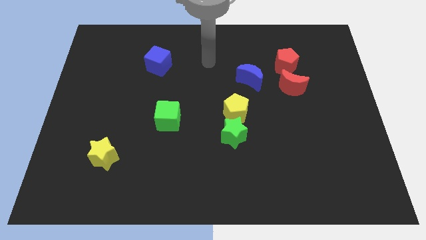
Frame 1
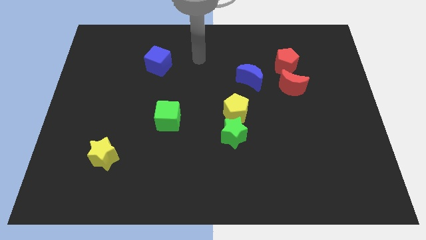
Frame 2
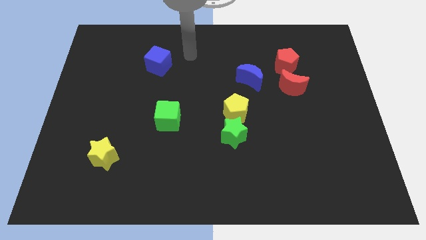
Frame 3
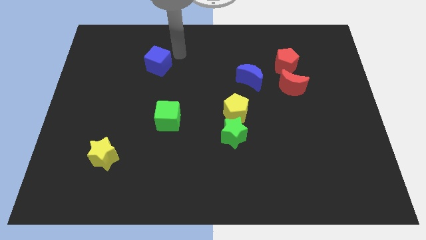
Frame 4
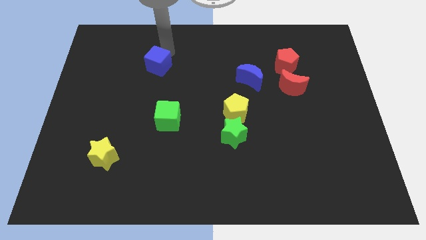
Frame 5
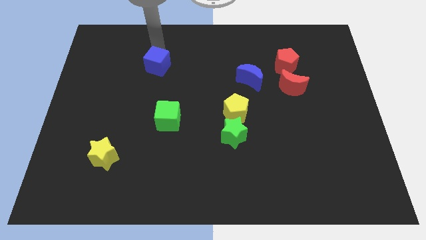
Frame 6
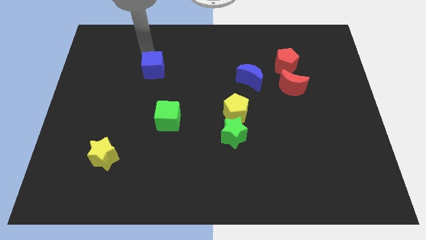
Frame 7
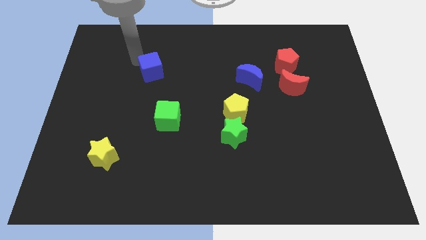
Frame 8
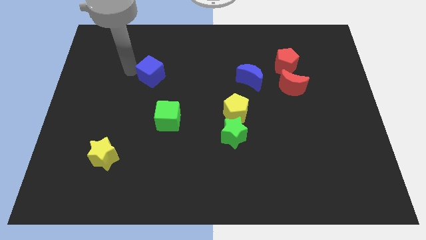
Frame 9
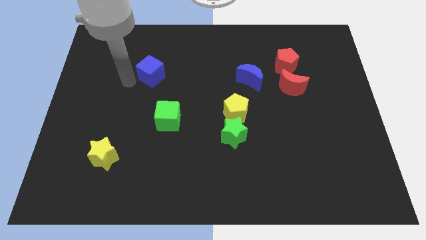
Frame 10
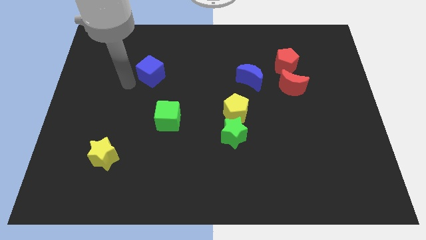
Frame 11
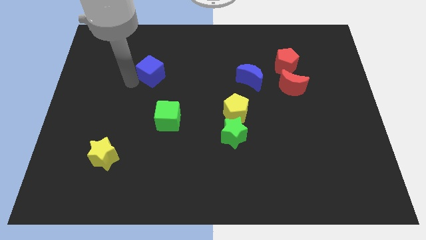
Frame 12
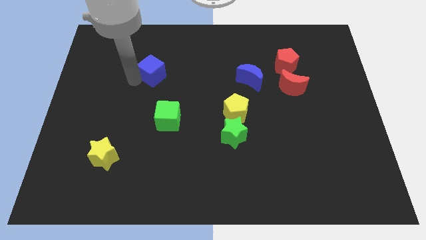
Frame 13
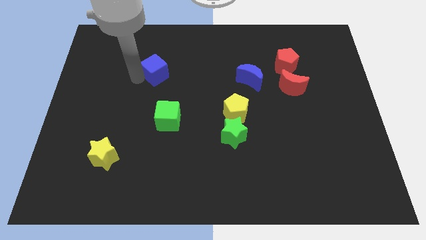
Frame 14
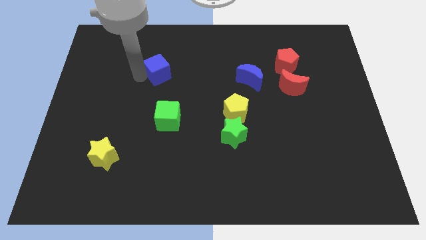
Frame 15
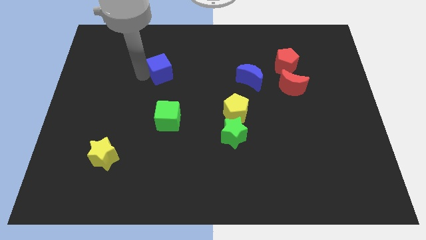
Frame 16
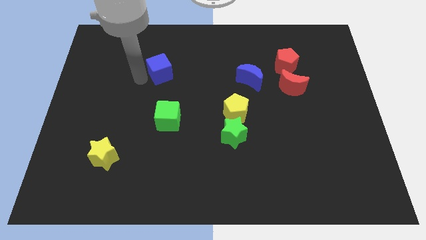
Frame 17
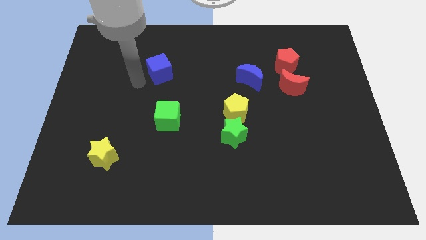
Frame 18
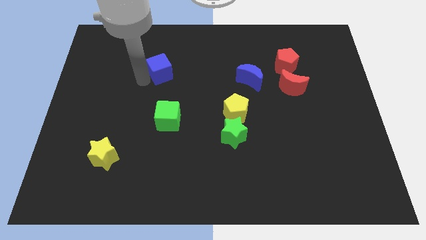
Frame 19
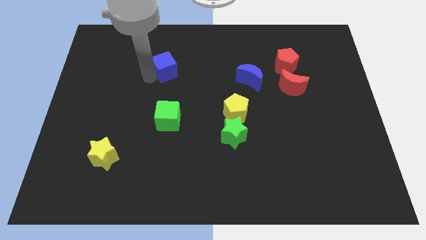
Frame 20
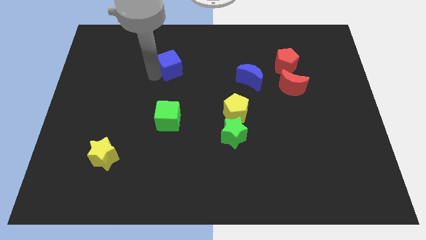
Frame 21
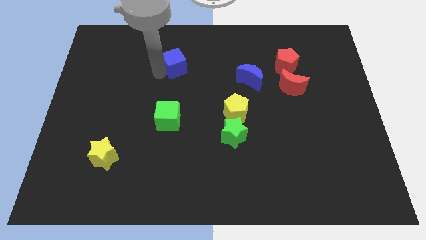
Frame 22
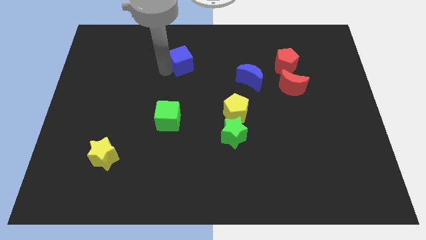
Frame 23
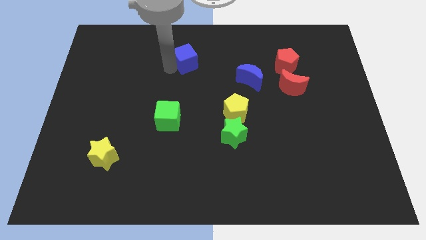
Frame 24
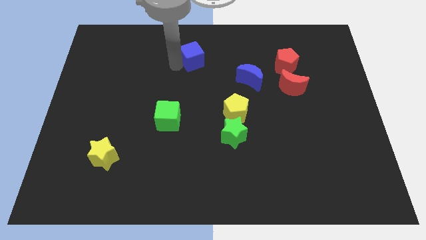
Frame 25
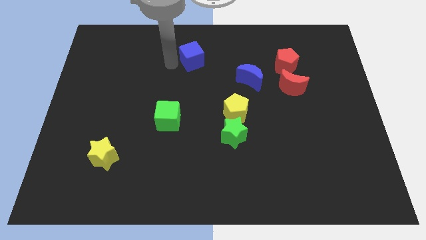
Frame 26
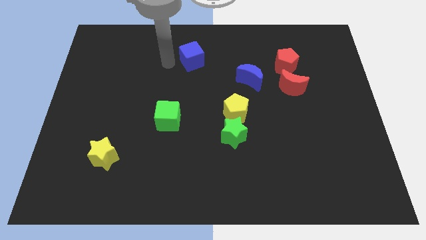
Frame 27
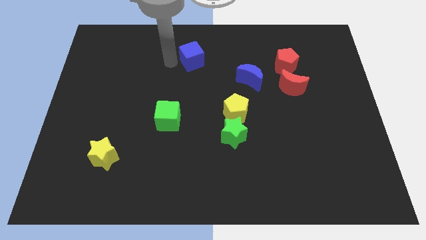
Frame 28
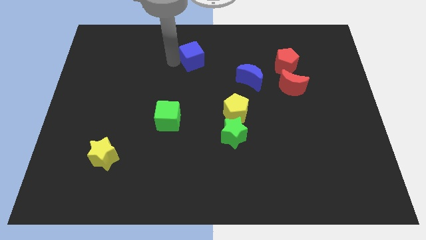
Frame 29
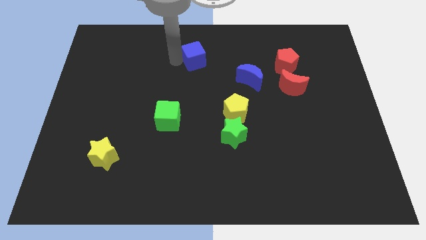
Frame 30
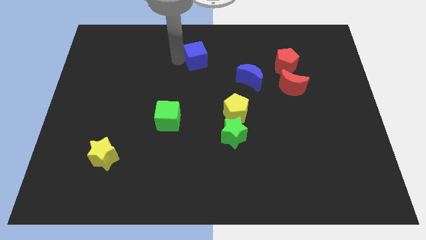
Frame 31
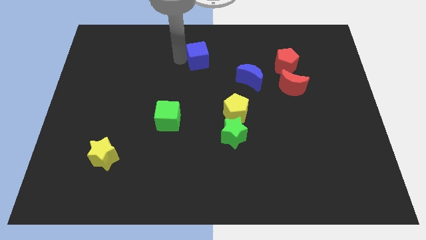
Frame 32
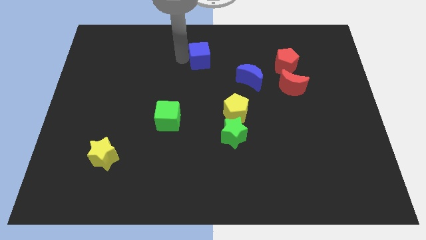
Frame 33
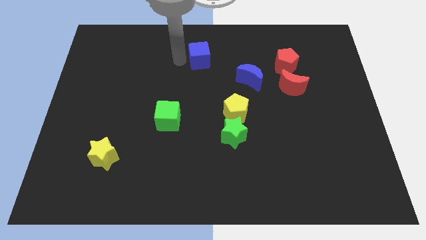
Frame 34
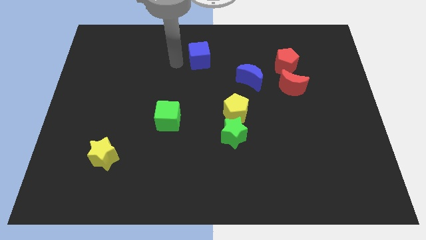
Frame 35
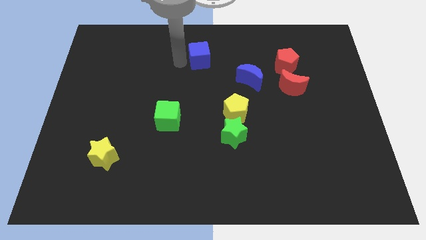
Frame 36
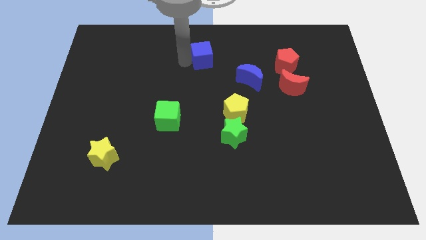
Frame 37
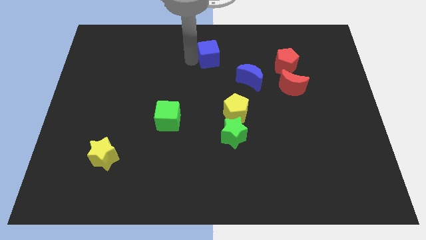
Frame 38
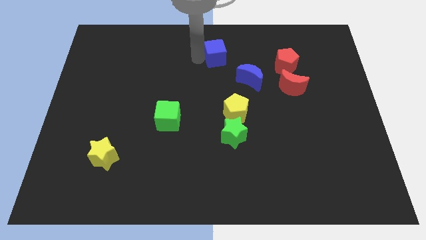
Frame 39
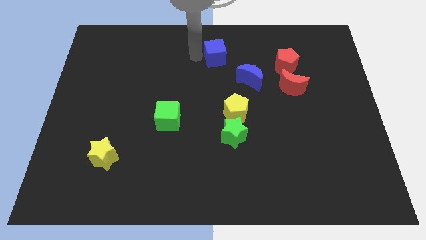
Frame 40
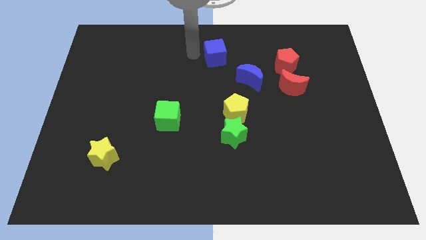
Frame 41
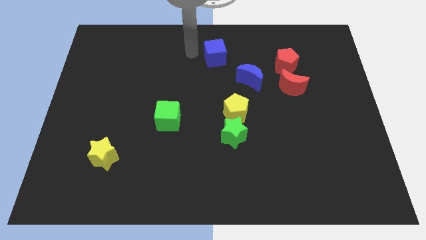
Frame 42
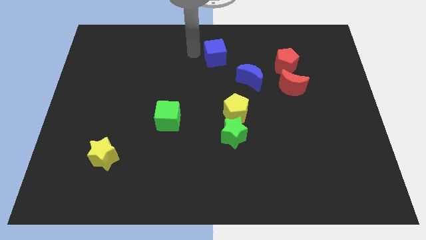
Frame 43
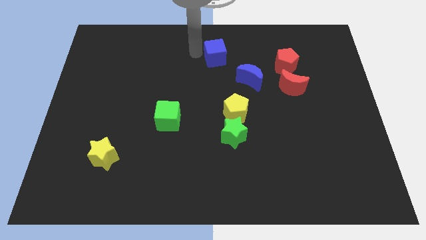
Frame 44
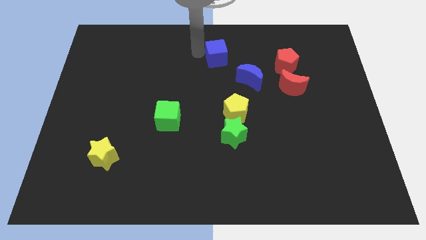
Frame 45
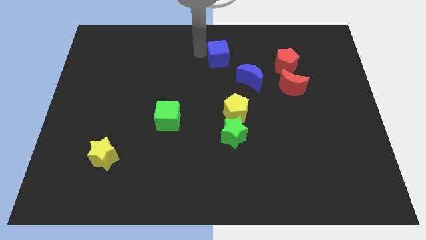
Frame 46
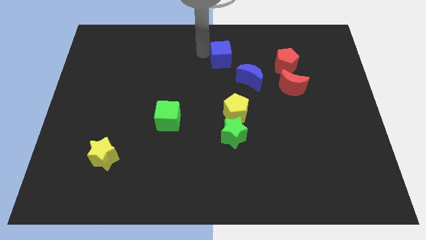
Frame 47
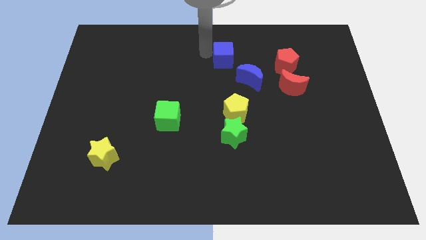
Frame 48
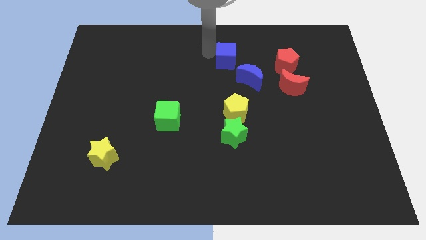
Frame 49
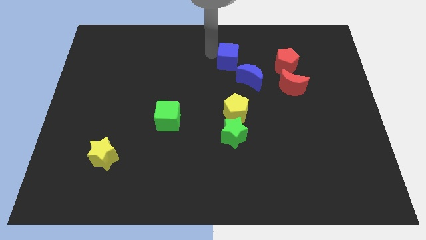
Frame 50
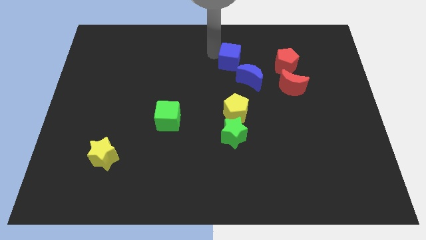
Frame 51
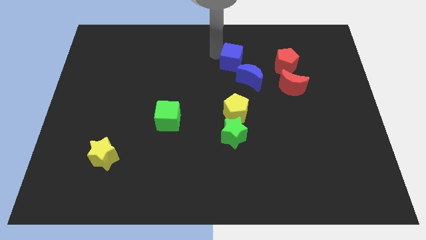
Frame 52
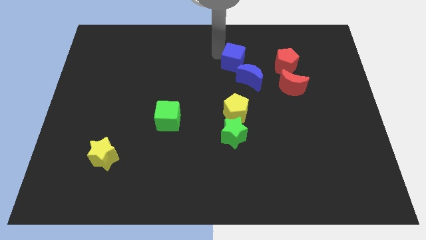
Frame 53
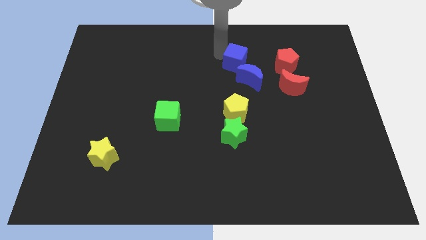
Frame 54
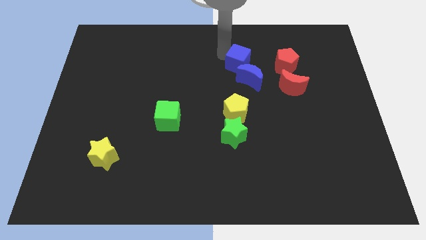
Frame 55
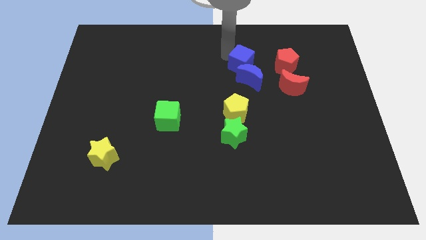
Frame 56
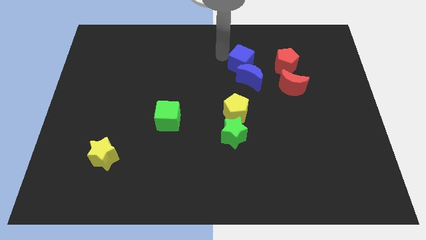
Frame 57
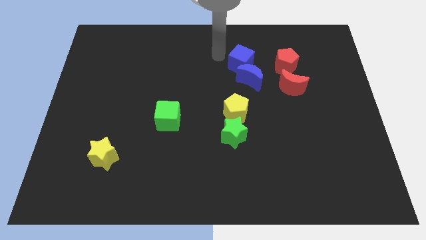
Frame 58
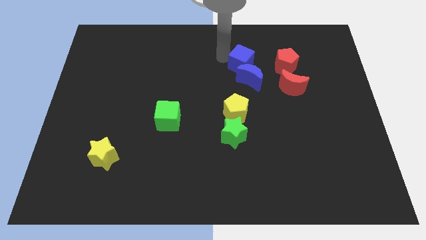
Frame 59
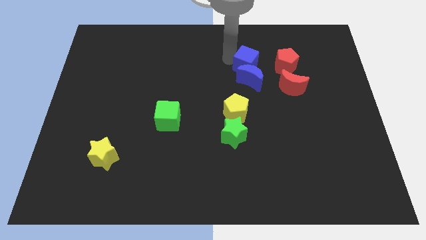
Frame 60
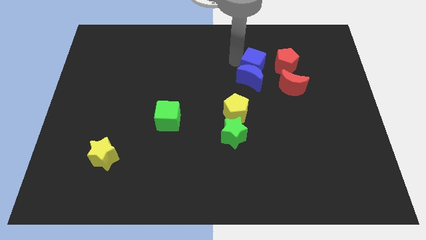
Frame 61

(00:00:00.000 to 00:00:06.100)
push the blue cube to the top left side of the red moon

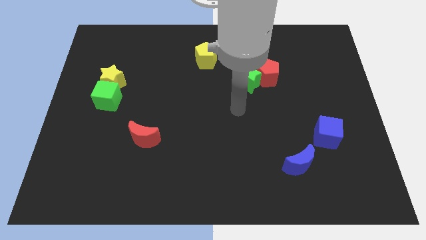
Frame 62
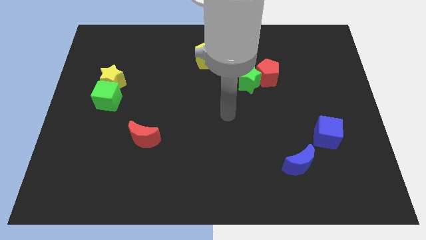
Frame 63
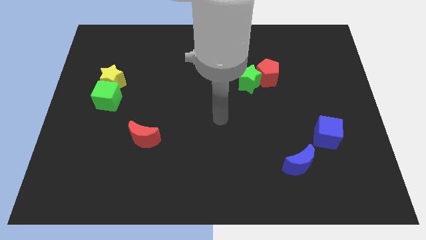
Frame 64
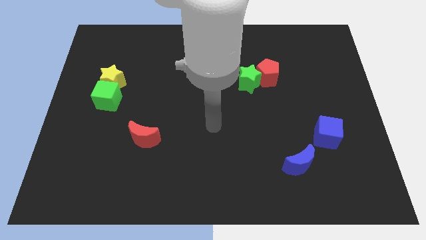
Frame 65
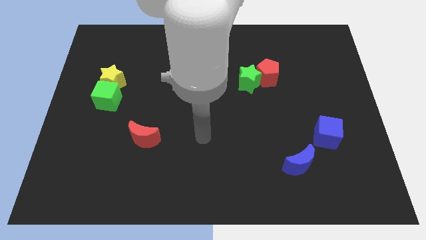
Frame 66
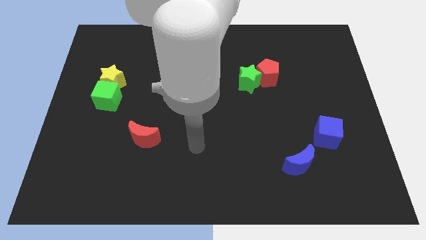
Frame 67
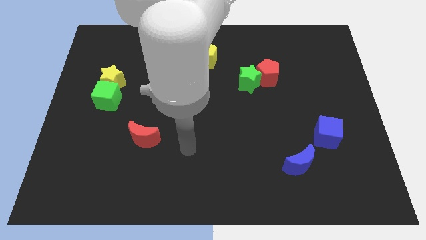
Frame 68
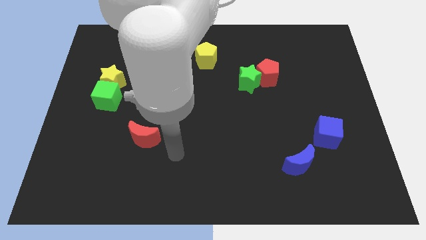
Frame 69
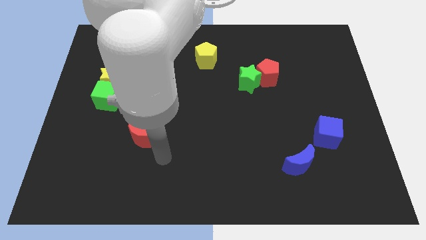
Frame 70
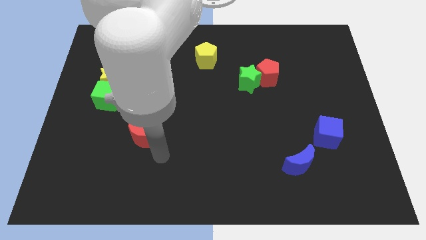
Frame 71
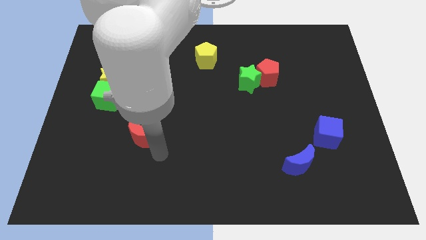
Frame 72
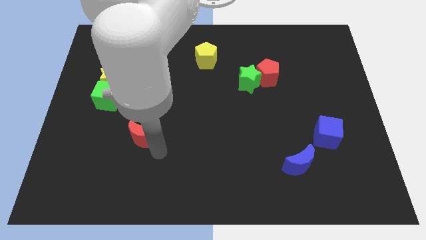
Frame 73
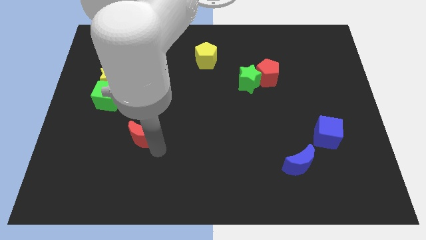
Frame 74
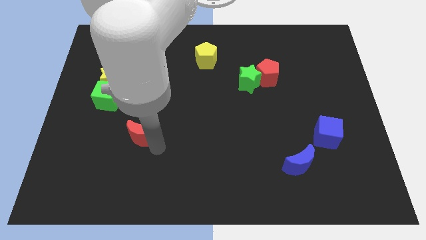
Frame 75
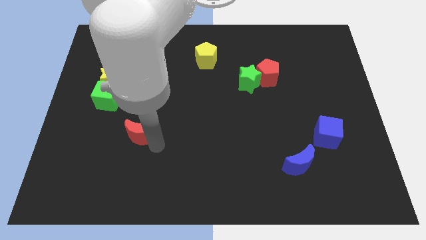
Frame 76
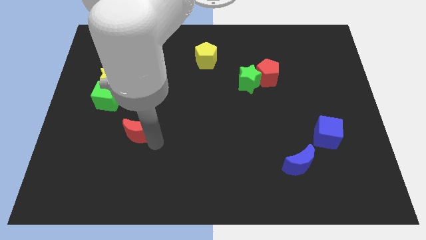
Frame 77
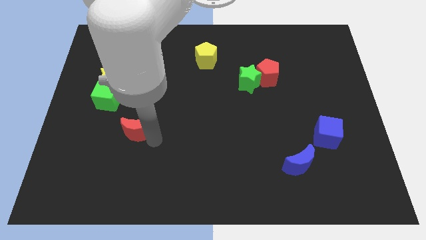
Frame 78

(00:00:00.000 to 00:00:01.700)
slide the red moon to the bottom right side of the green cube

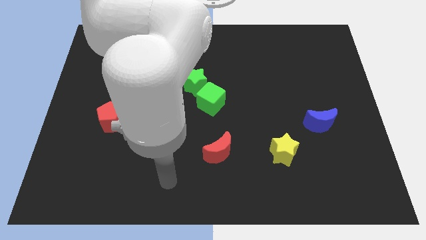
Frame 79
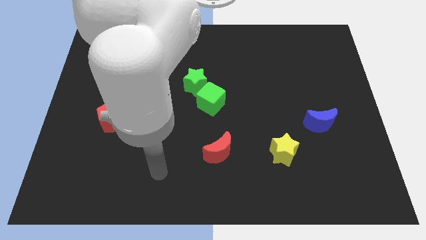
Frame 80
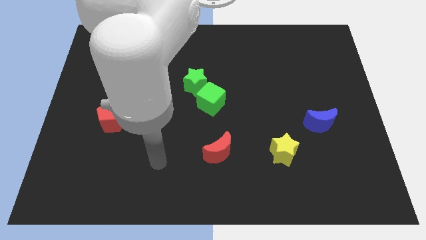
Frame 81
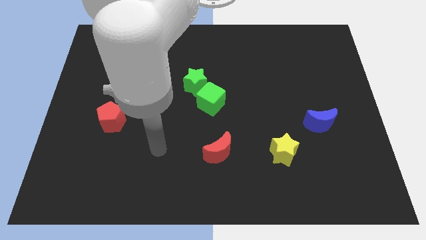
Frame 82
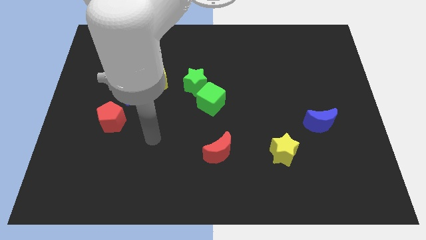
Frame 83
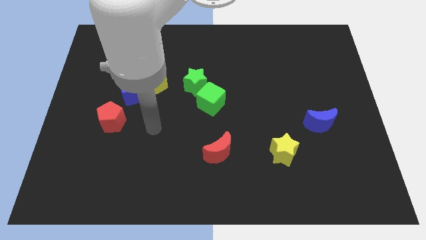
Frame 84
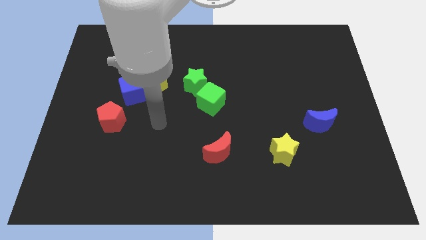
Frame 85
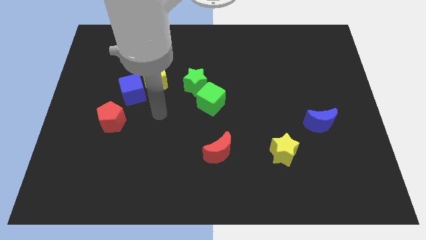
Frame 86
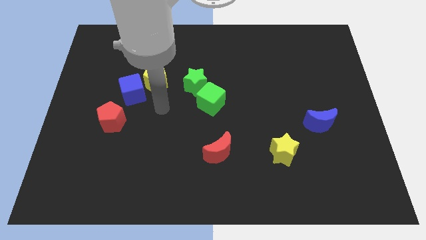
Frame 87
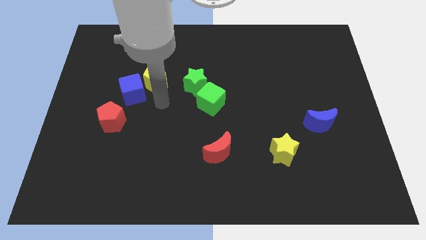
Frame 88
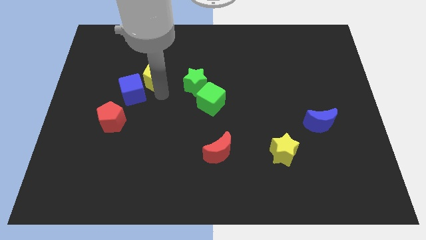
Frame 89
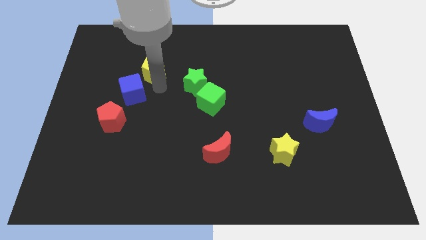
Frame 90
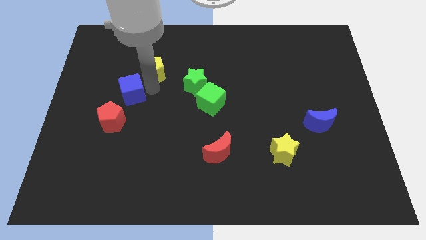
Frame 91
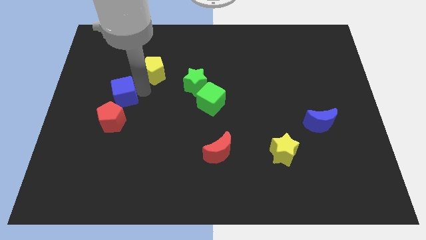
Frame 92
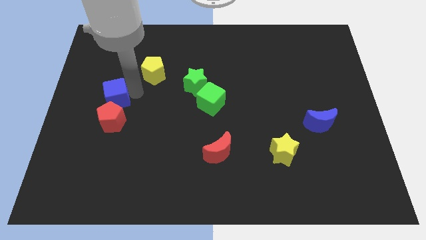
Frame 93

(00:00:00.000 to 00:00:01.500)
put the blue cube to the top left side of the red pentagon
